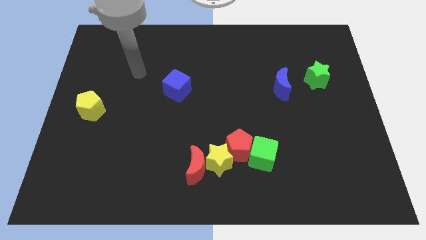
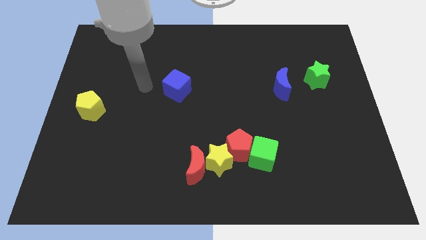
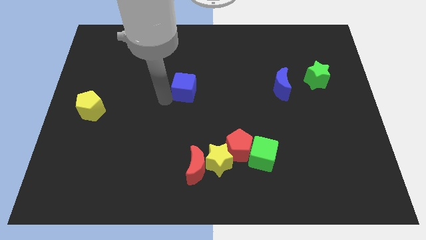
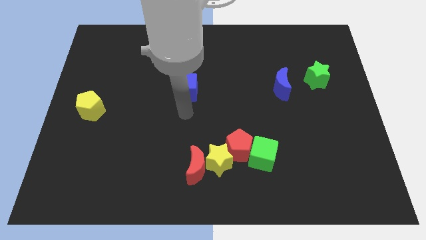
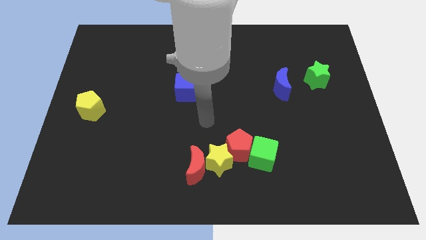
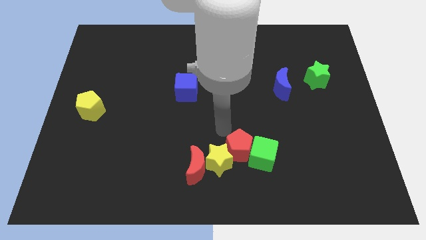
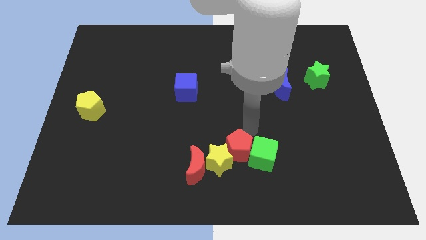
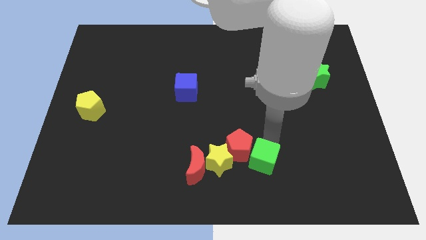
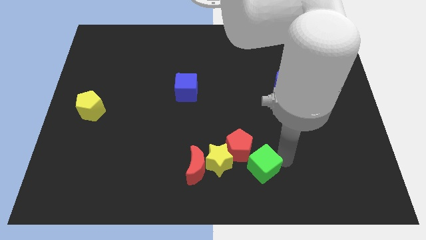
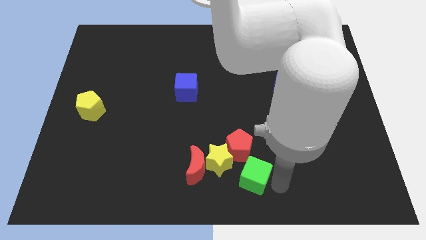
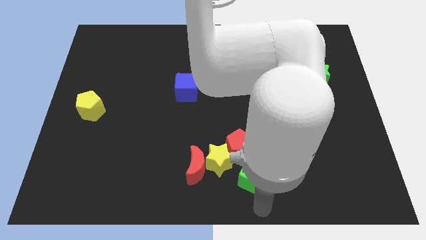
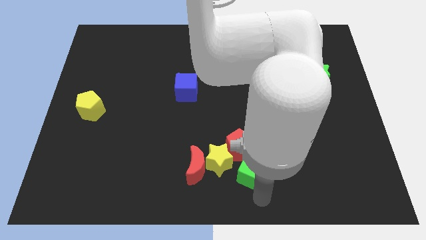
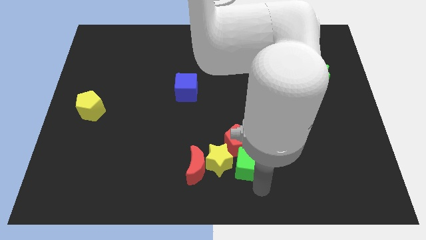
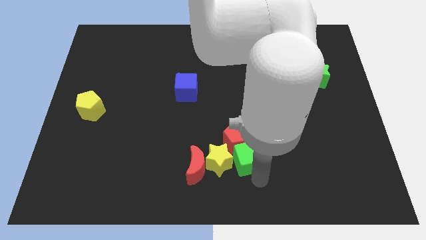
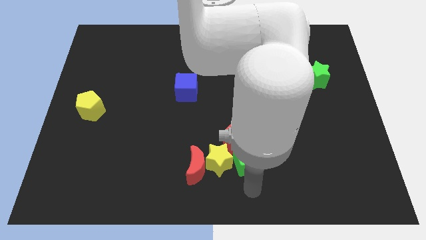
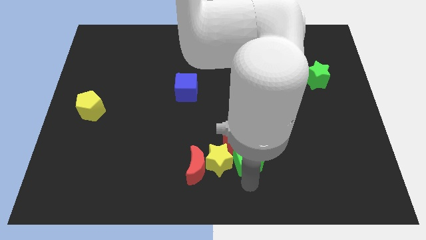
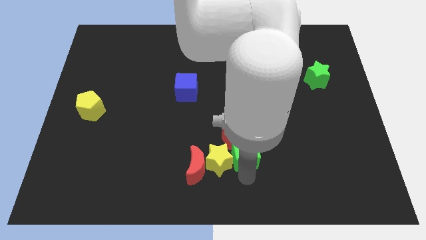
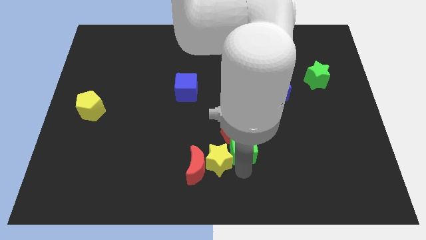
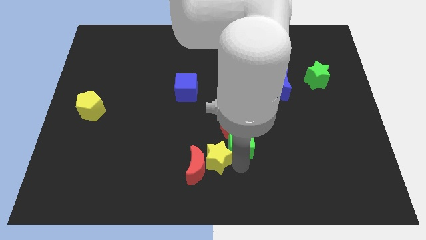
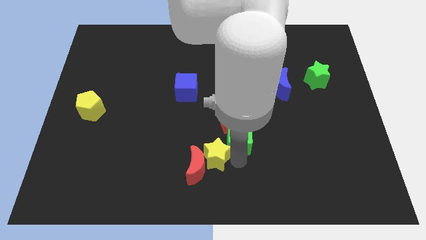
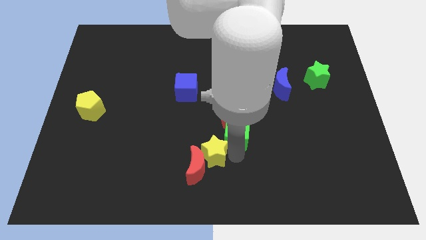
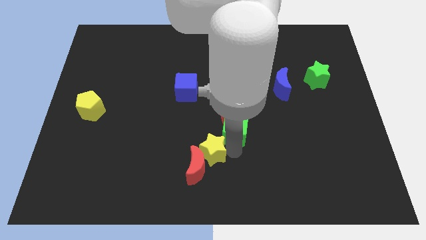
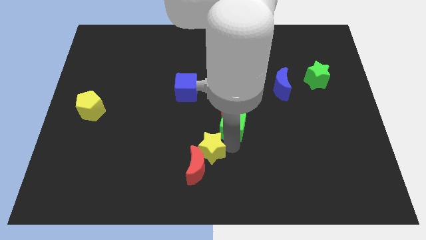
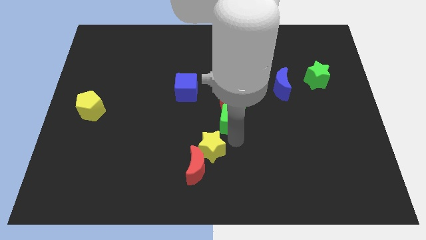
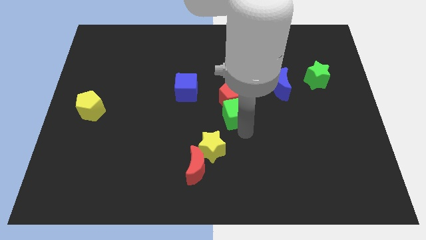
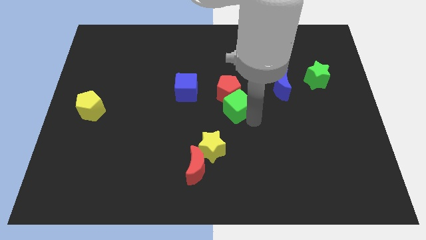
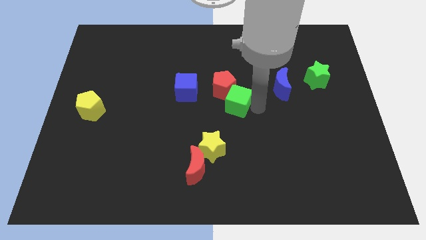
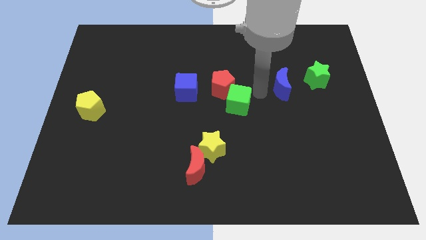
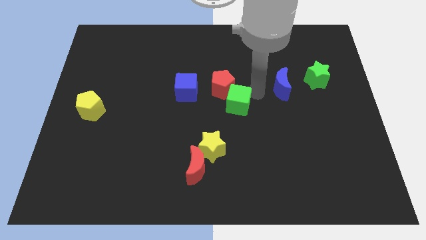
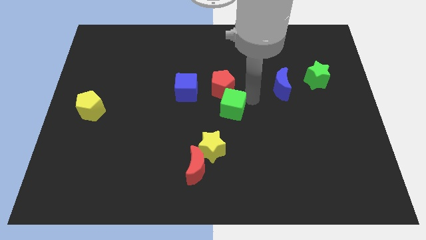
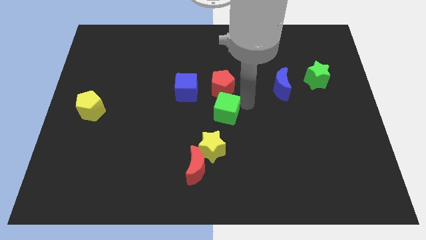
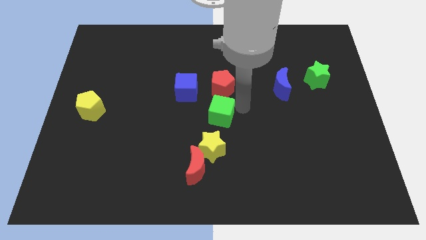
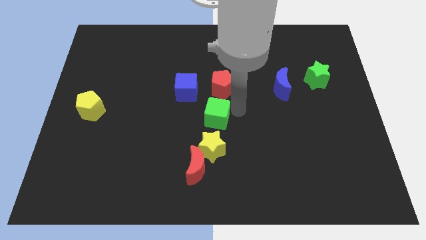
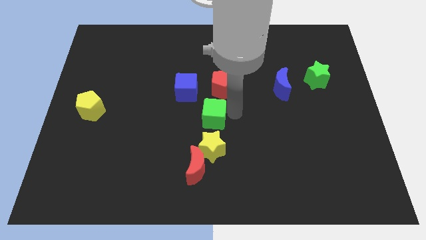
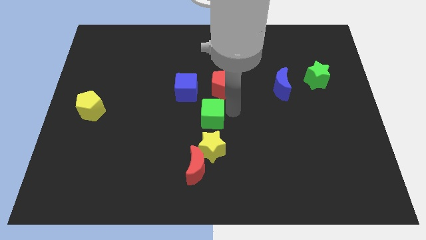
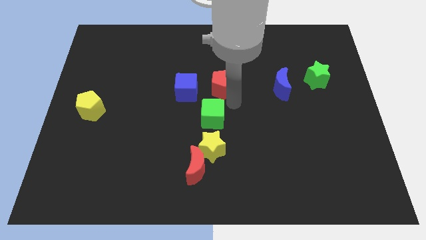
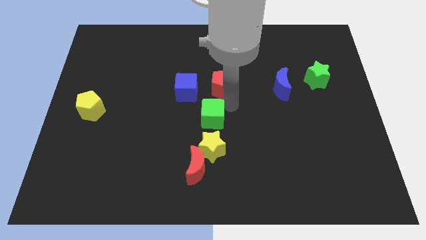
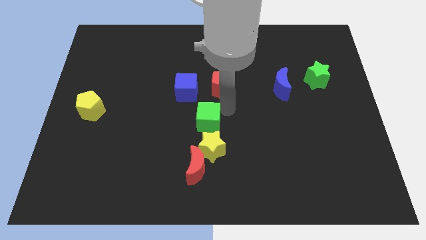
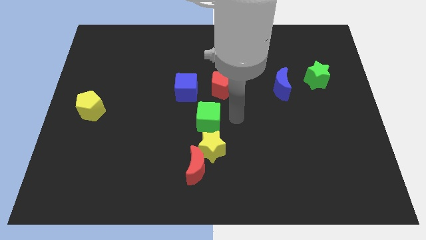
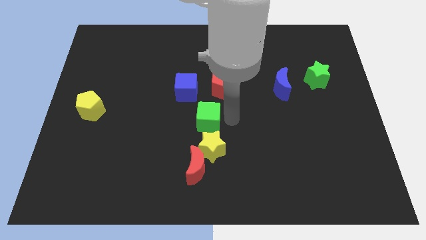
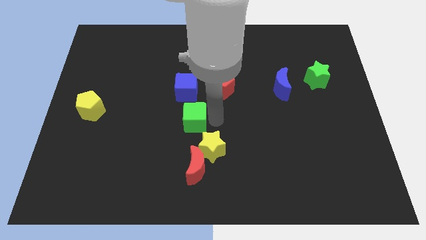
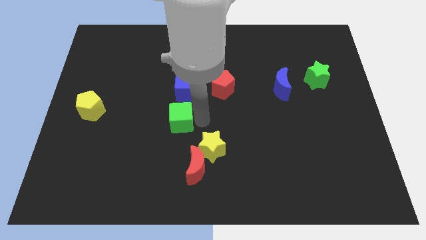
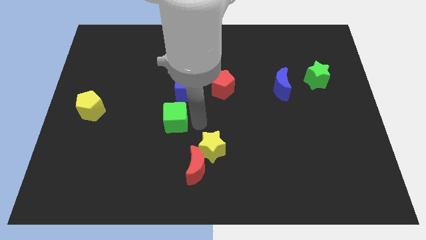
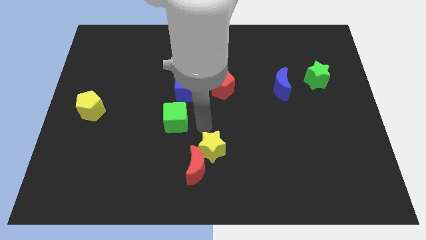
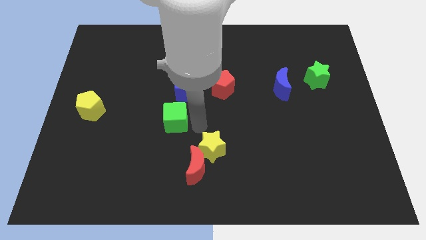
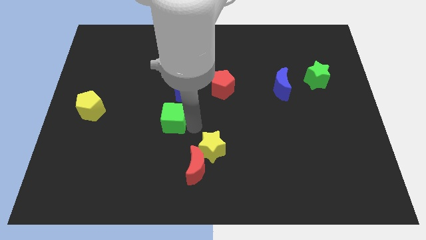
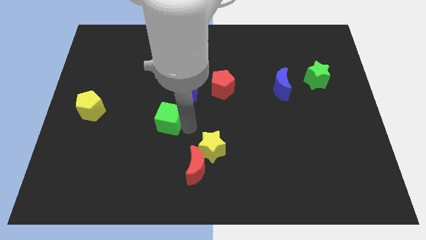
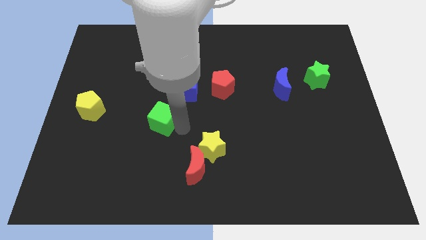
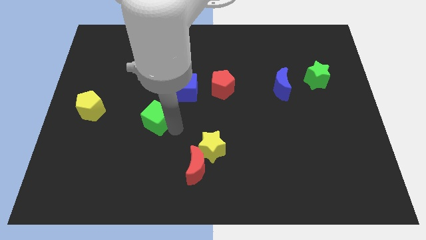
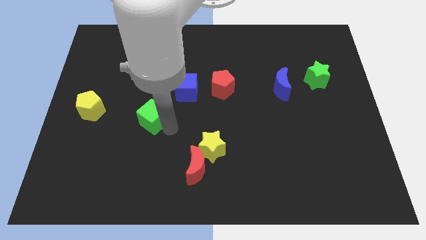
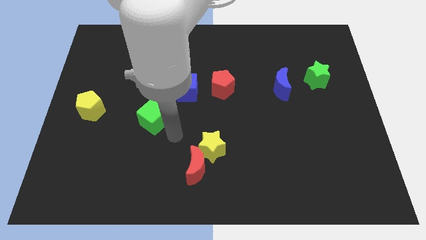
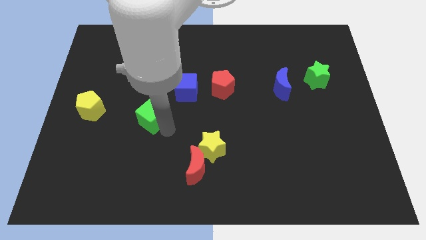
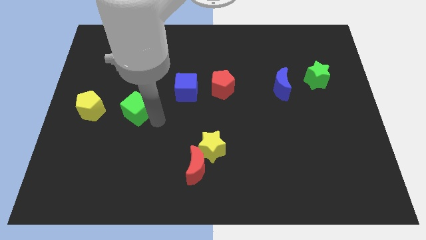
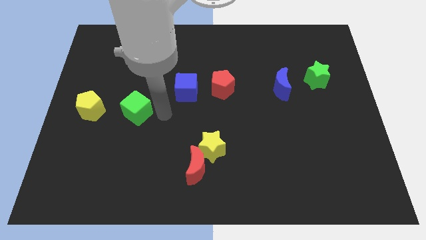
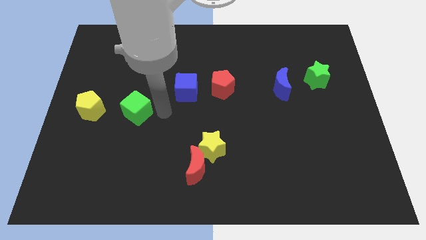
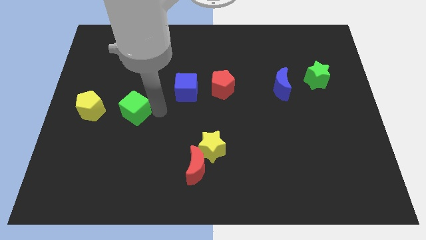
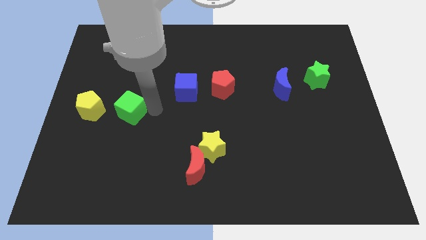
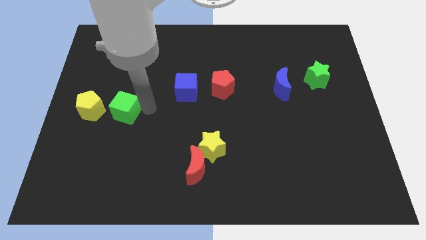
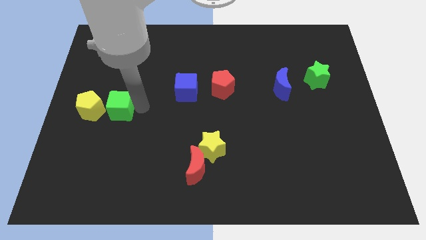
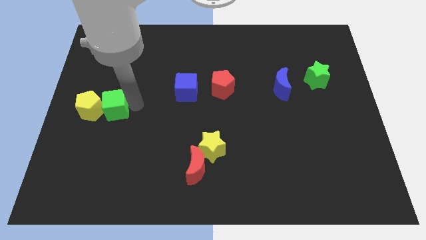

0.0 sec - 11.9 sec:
move the green cube towards the yellow pentagon
